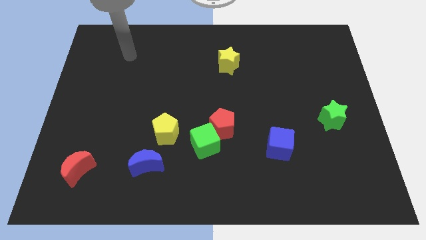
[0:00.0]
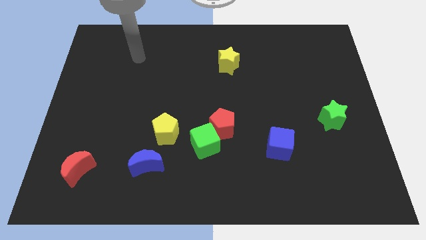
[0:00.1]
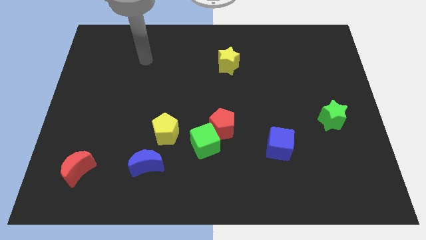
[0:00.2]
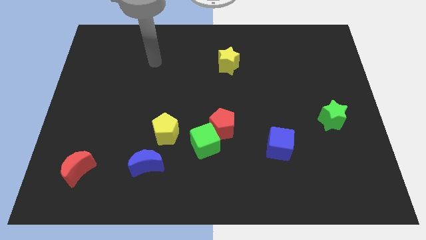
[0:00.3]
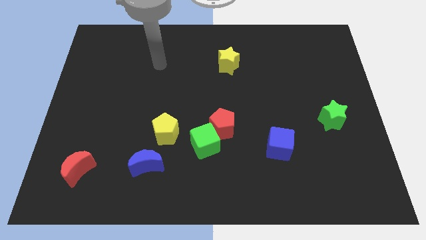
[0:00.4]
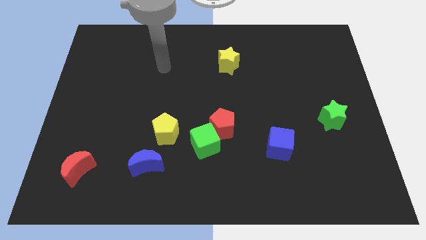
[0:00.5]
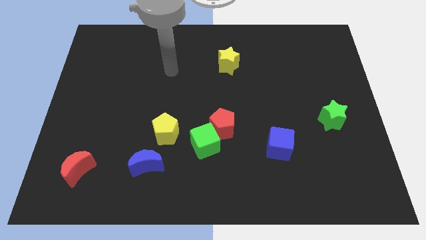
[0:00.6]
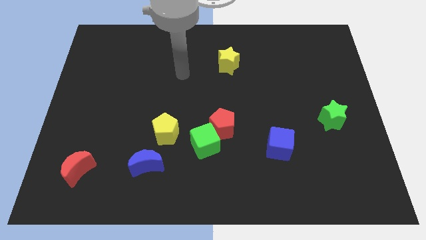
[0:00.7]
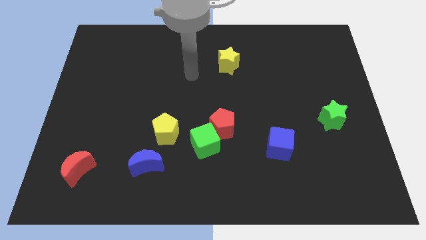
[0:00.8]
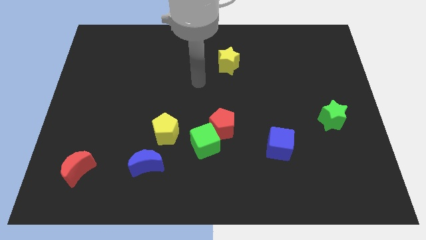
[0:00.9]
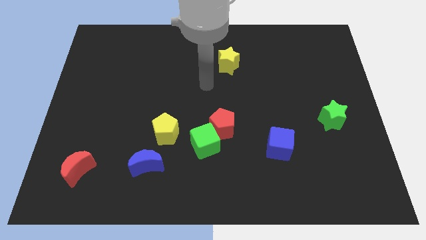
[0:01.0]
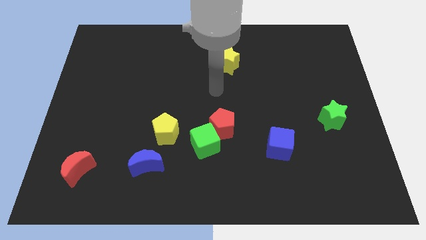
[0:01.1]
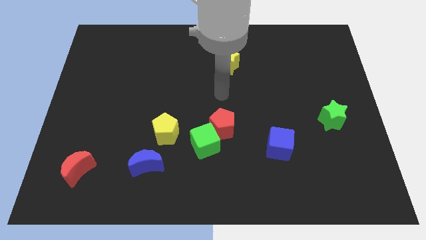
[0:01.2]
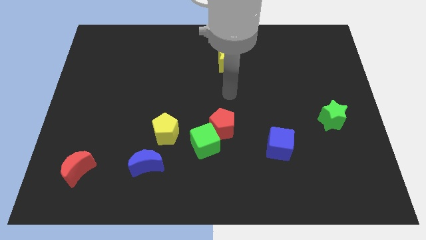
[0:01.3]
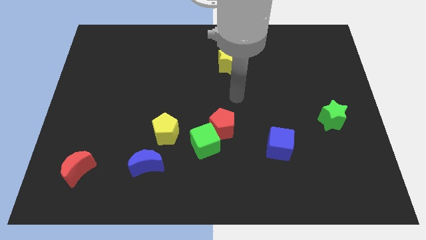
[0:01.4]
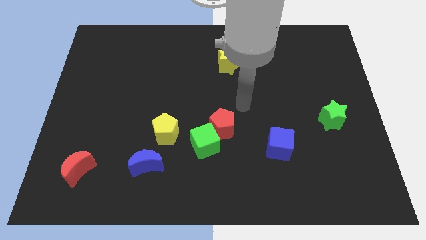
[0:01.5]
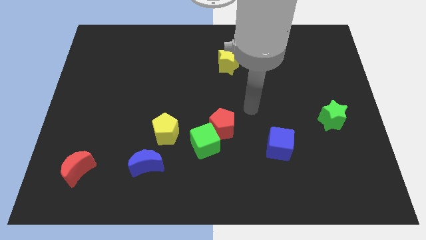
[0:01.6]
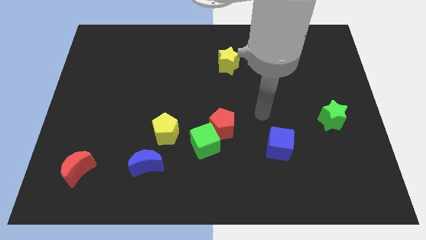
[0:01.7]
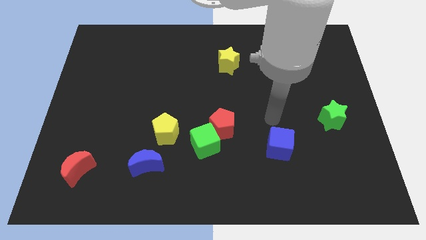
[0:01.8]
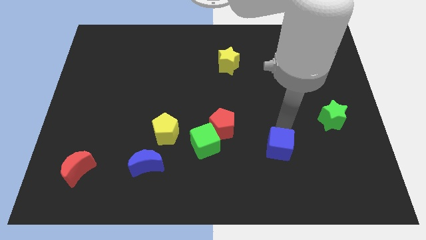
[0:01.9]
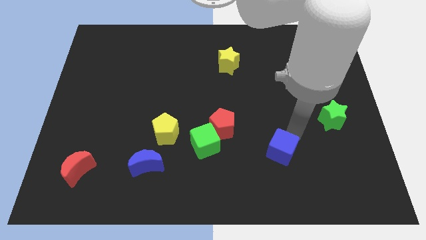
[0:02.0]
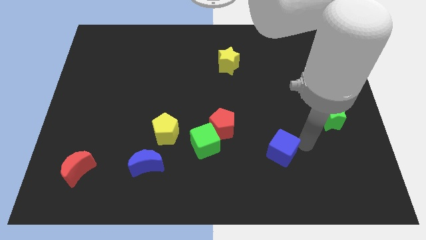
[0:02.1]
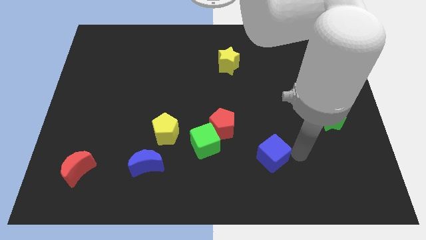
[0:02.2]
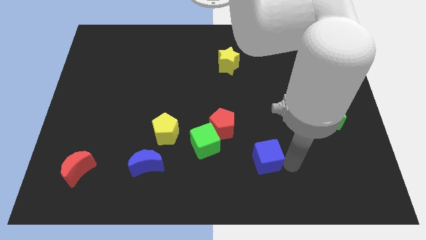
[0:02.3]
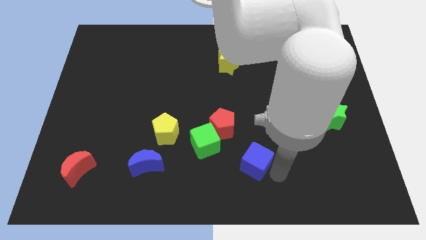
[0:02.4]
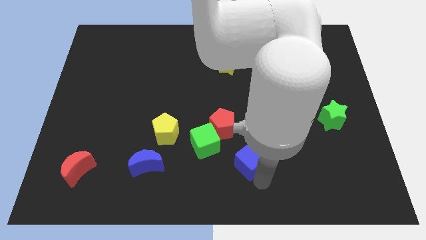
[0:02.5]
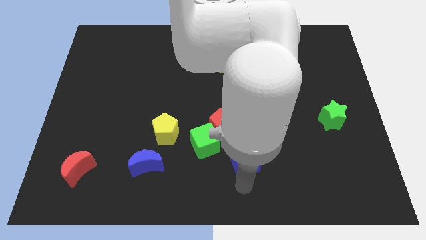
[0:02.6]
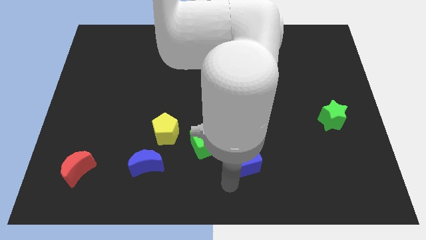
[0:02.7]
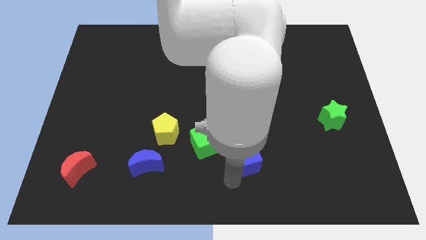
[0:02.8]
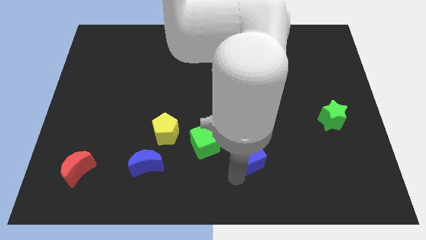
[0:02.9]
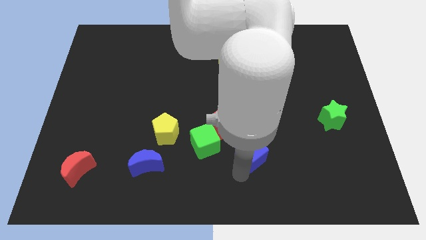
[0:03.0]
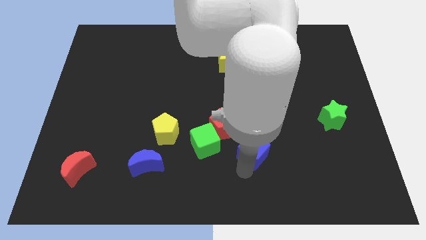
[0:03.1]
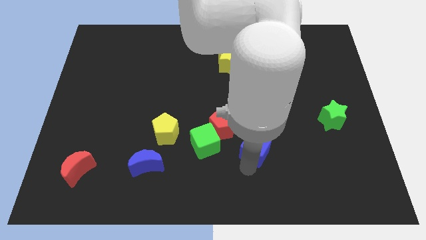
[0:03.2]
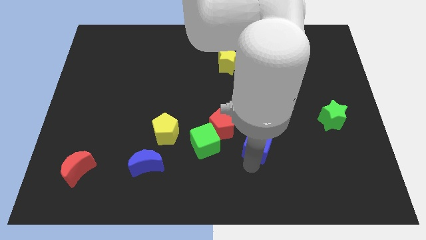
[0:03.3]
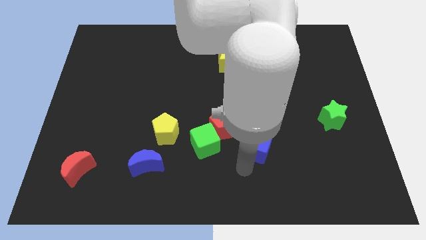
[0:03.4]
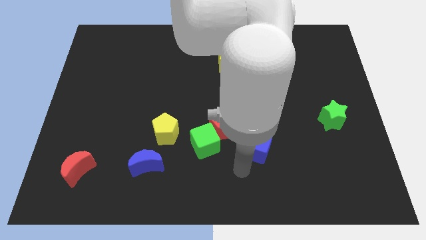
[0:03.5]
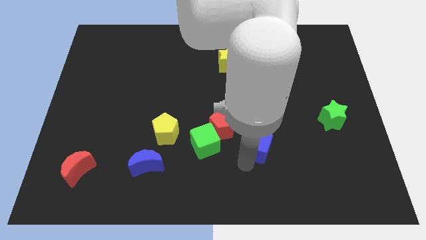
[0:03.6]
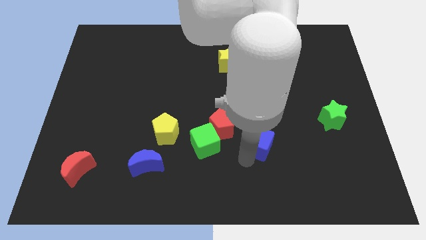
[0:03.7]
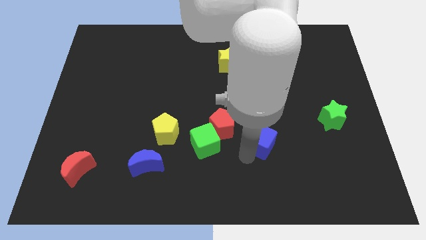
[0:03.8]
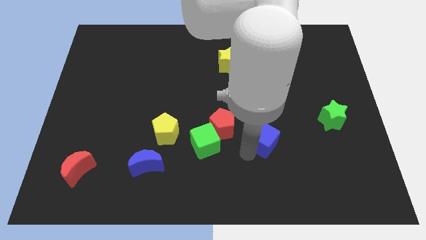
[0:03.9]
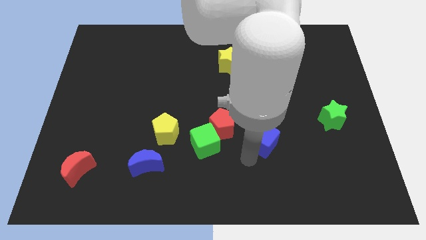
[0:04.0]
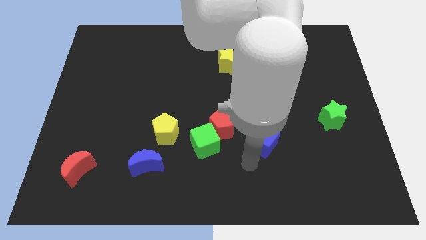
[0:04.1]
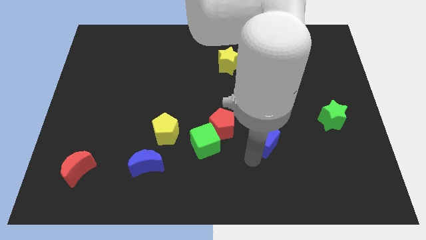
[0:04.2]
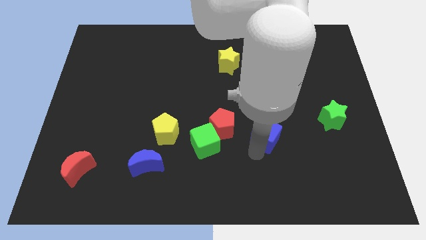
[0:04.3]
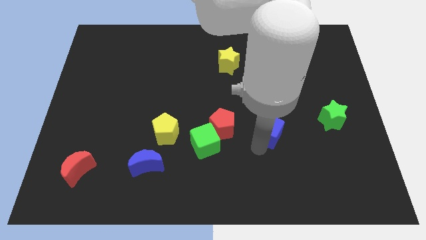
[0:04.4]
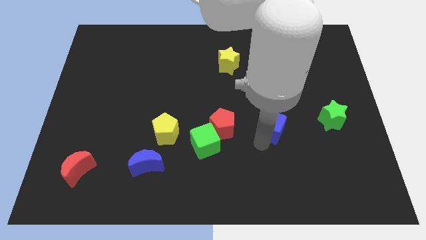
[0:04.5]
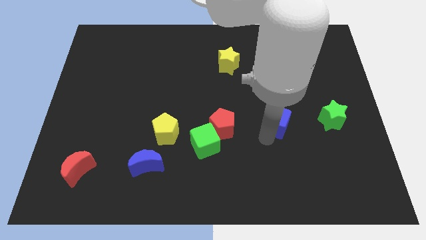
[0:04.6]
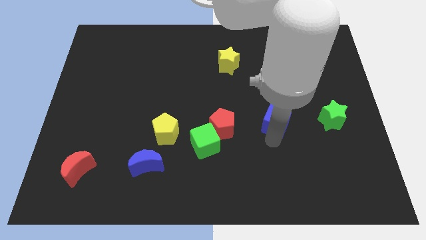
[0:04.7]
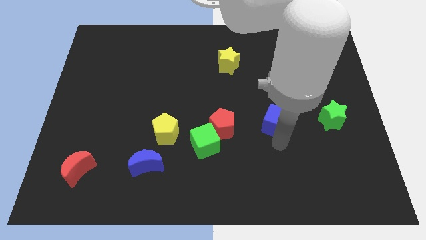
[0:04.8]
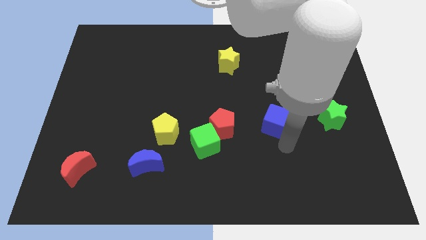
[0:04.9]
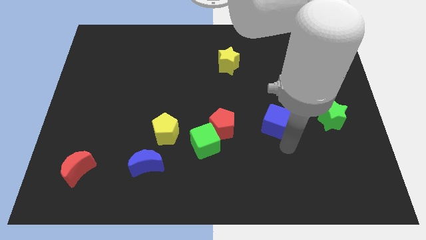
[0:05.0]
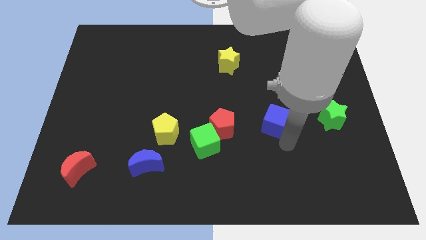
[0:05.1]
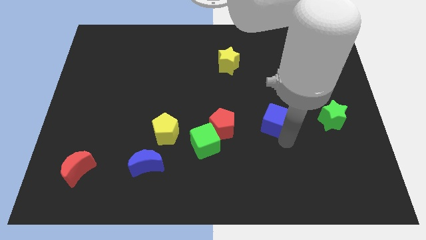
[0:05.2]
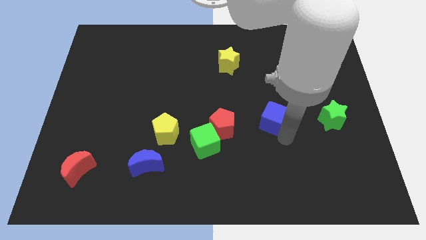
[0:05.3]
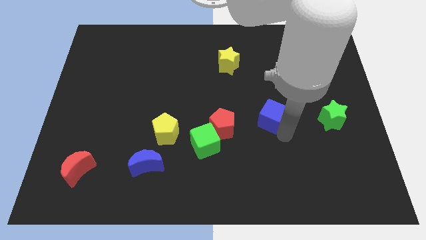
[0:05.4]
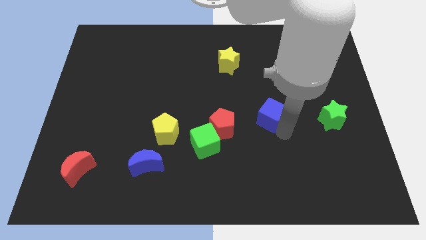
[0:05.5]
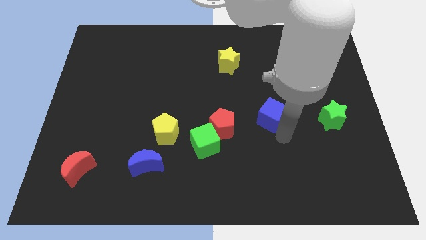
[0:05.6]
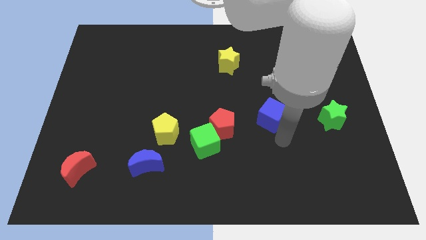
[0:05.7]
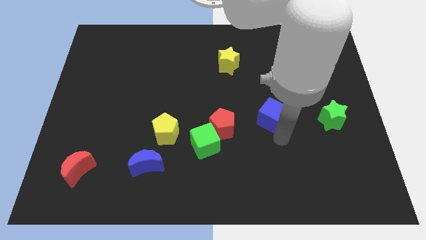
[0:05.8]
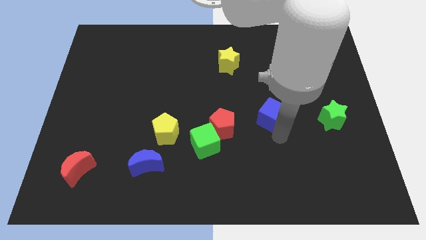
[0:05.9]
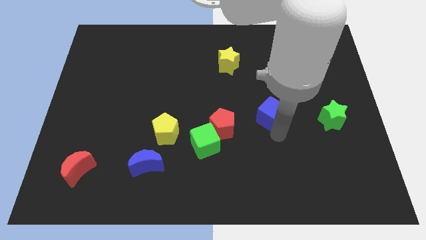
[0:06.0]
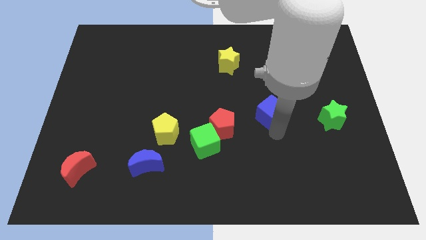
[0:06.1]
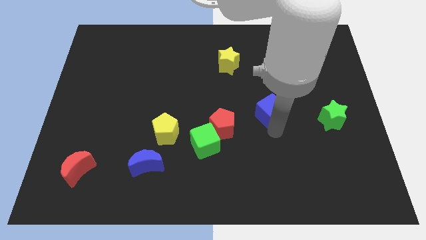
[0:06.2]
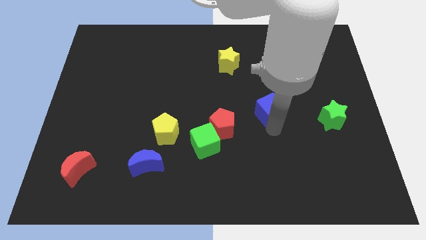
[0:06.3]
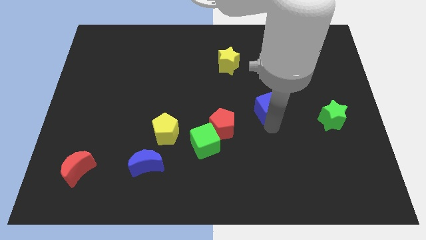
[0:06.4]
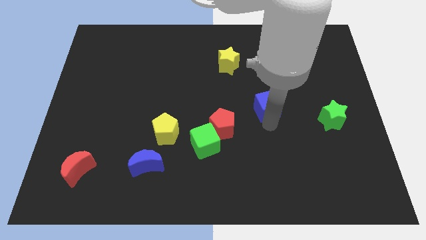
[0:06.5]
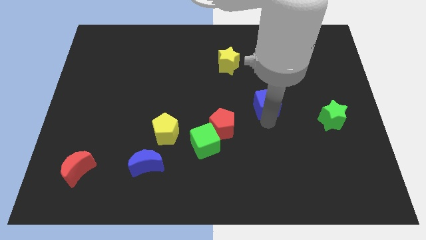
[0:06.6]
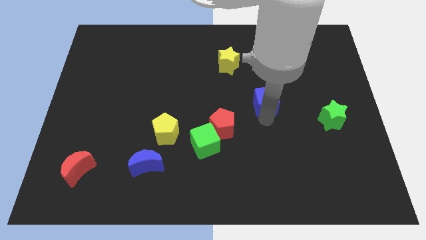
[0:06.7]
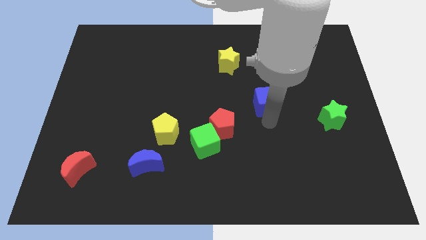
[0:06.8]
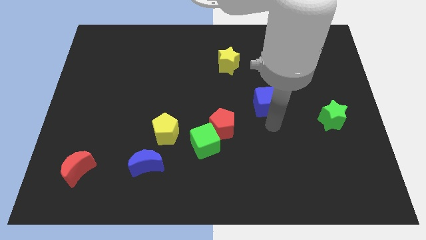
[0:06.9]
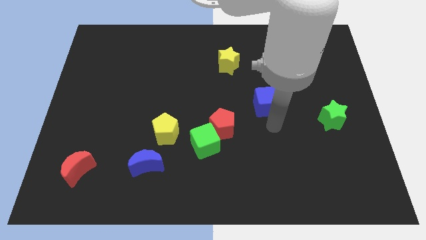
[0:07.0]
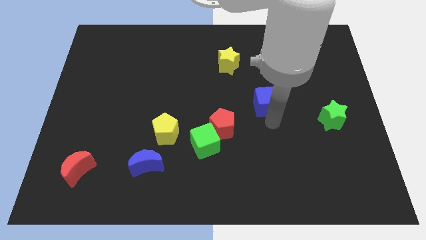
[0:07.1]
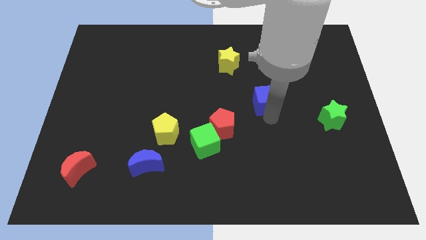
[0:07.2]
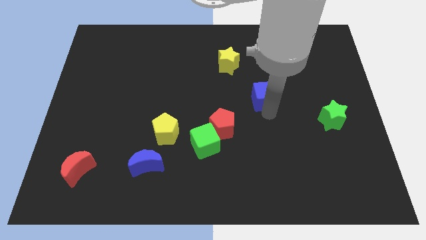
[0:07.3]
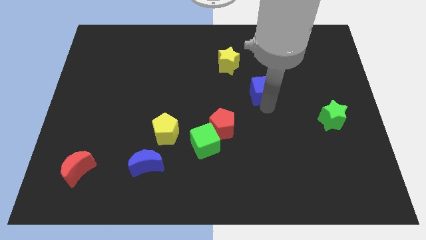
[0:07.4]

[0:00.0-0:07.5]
put the blue cube to the bottom right side of the yellow star
